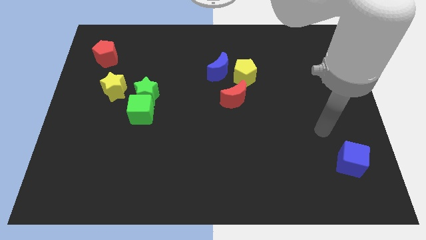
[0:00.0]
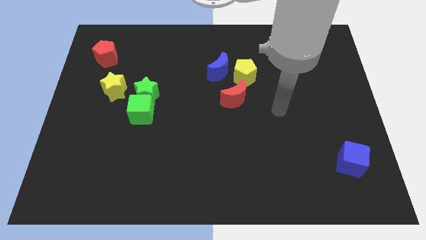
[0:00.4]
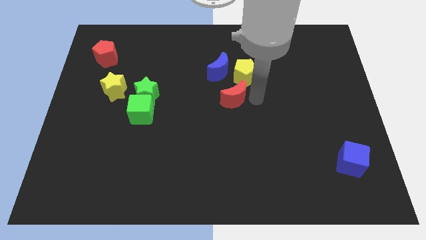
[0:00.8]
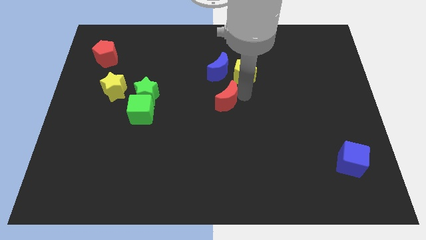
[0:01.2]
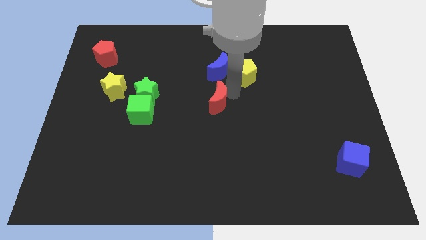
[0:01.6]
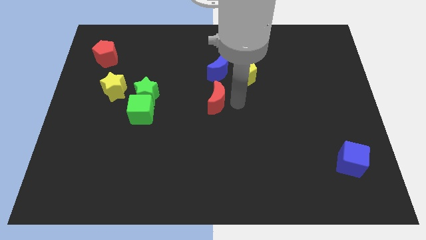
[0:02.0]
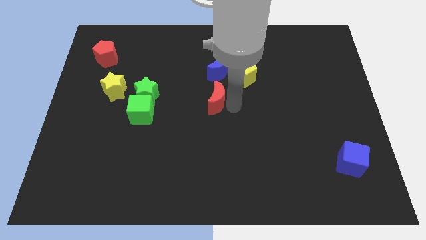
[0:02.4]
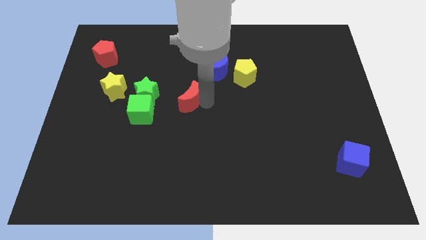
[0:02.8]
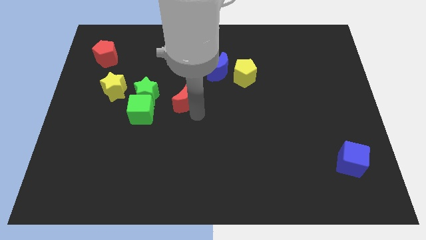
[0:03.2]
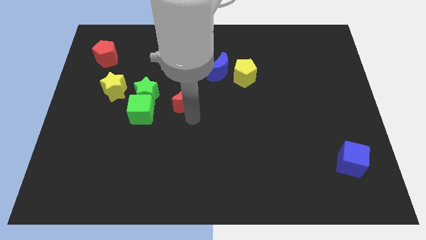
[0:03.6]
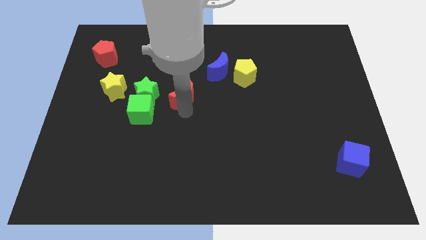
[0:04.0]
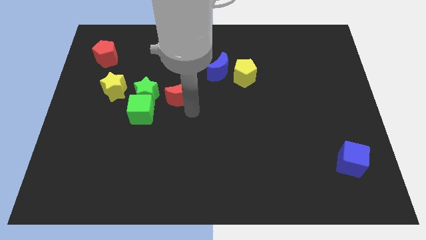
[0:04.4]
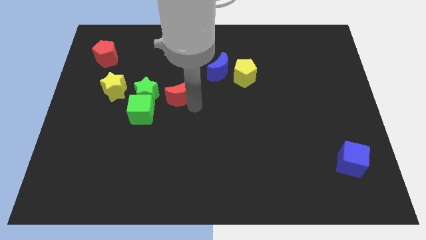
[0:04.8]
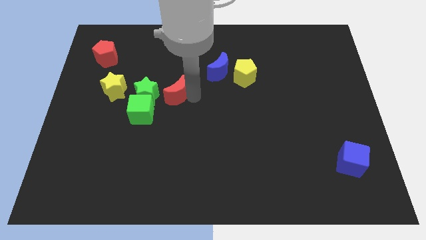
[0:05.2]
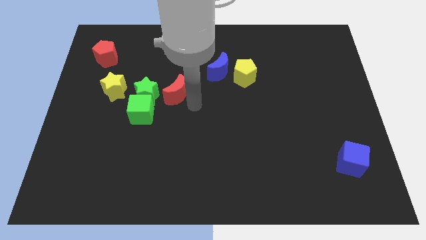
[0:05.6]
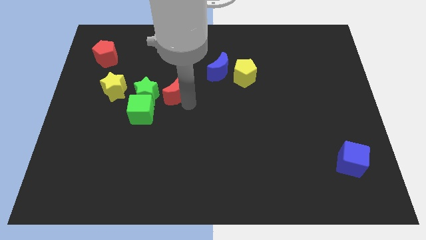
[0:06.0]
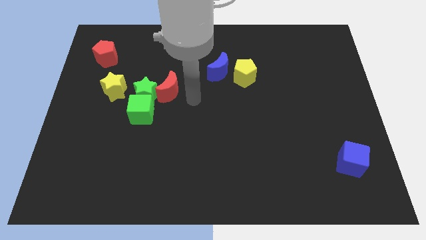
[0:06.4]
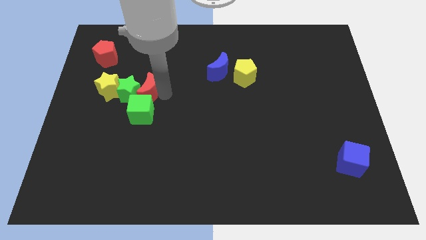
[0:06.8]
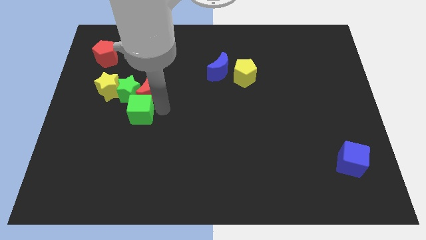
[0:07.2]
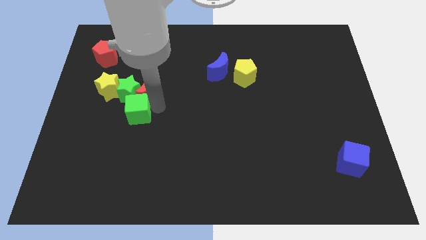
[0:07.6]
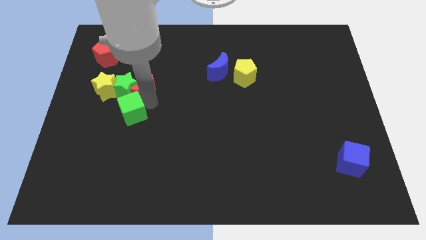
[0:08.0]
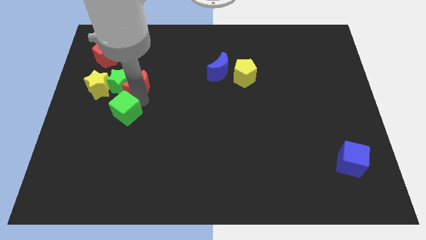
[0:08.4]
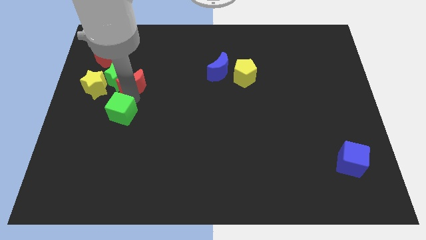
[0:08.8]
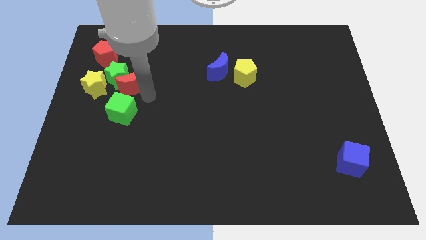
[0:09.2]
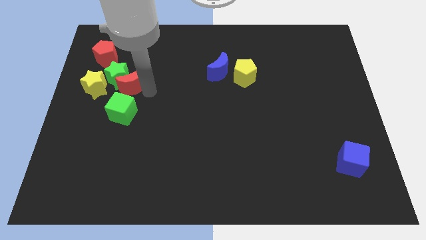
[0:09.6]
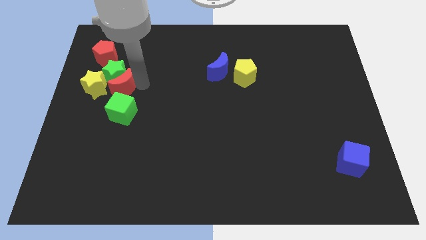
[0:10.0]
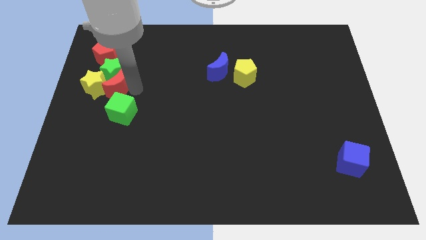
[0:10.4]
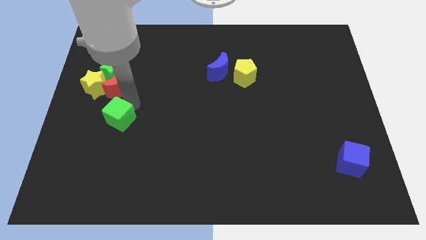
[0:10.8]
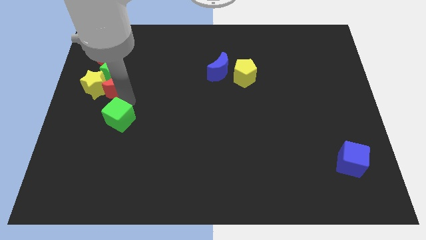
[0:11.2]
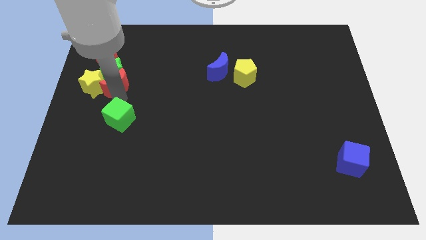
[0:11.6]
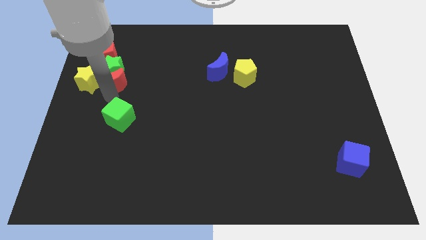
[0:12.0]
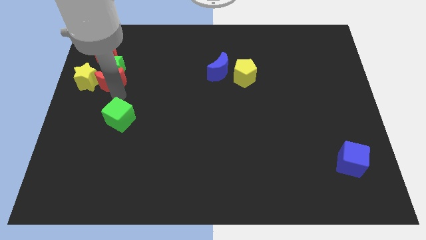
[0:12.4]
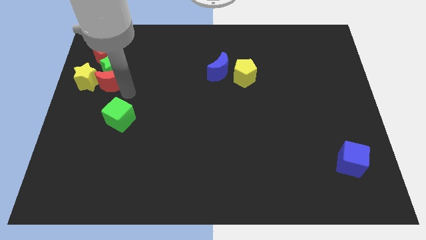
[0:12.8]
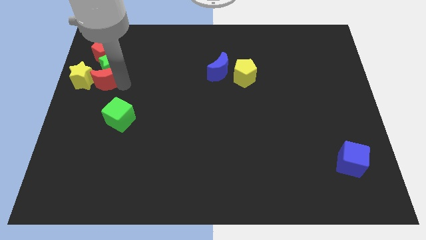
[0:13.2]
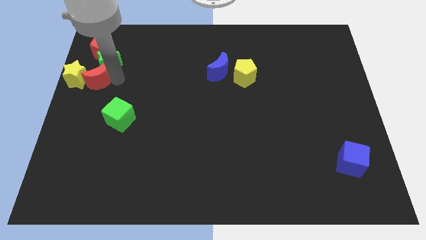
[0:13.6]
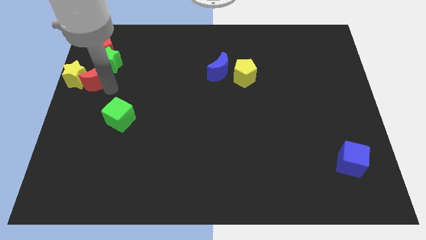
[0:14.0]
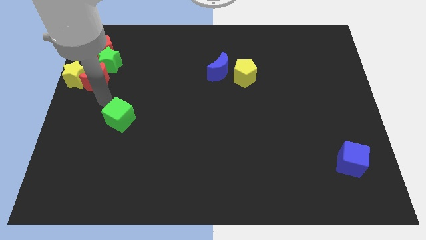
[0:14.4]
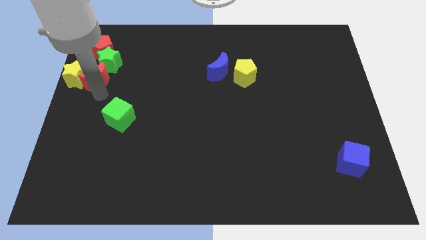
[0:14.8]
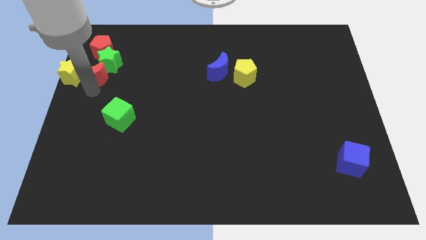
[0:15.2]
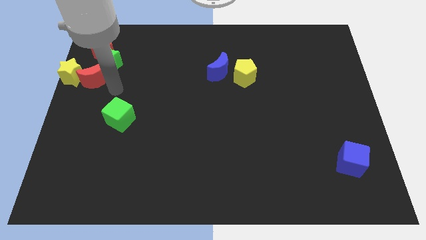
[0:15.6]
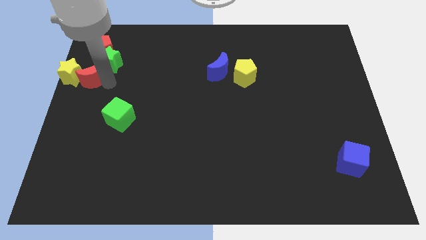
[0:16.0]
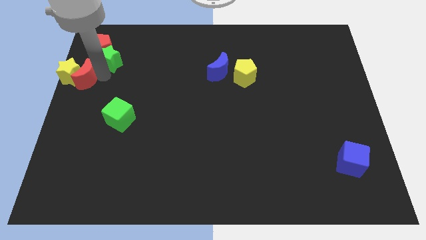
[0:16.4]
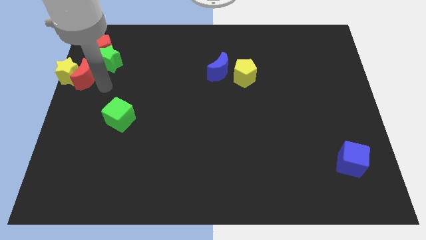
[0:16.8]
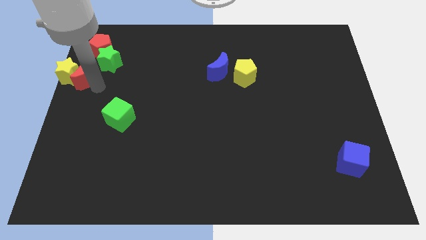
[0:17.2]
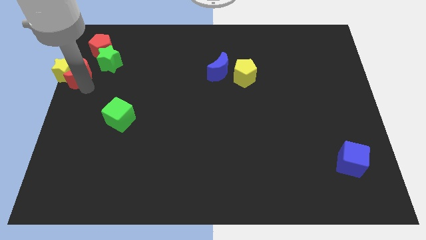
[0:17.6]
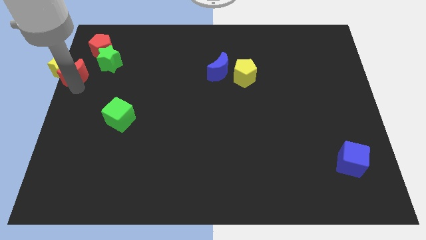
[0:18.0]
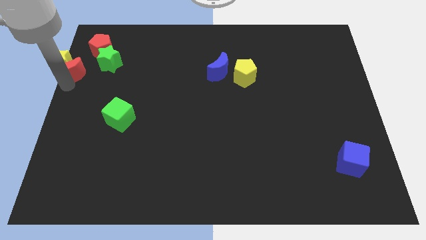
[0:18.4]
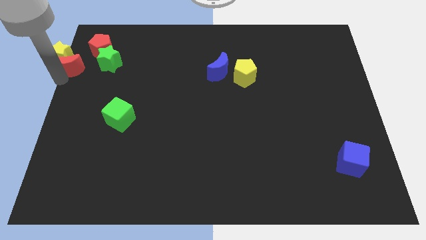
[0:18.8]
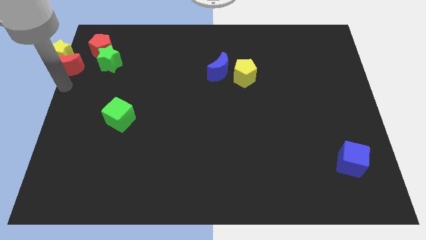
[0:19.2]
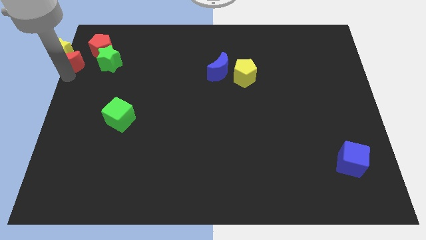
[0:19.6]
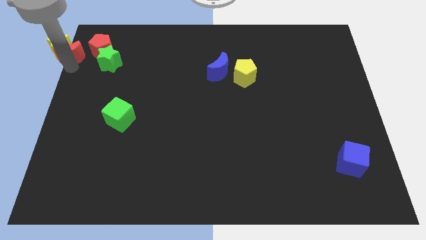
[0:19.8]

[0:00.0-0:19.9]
push the red moon to the top left

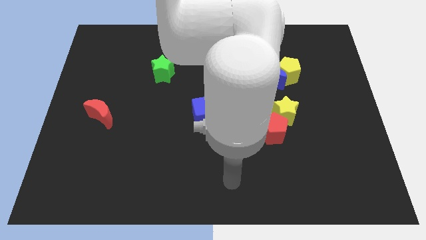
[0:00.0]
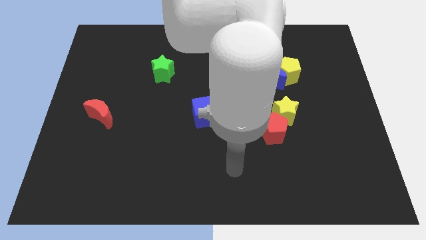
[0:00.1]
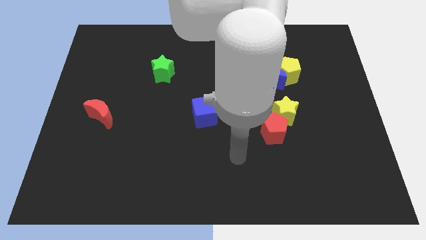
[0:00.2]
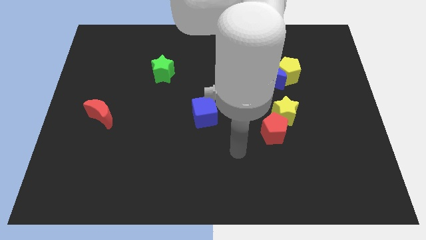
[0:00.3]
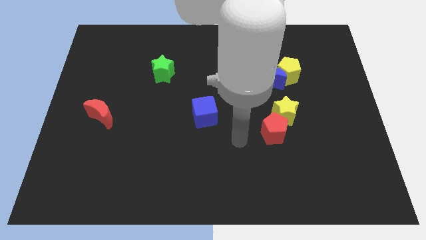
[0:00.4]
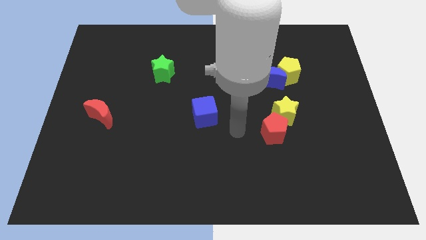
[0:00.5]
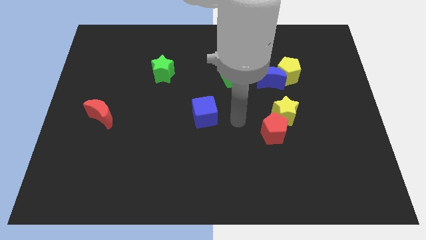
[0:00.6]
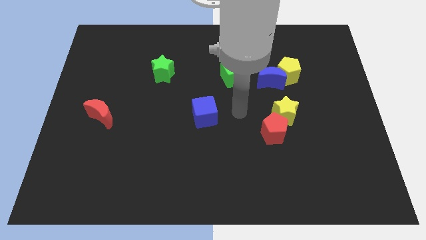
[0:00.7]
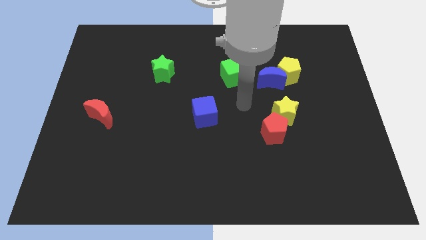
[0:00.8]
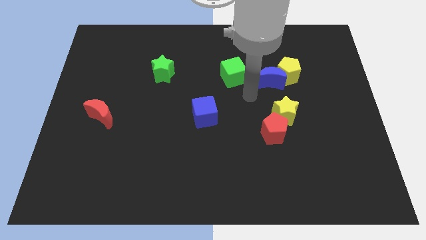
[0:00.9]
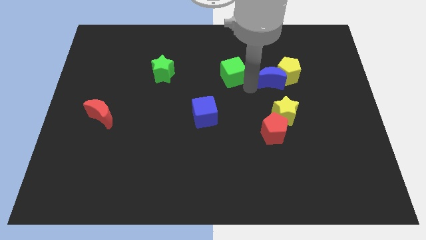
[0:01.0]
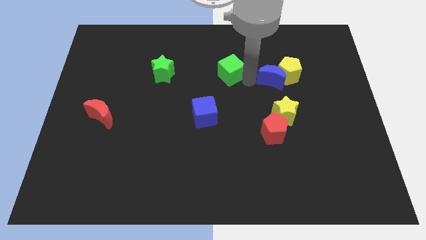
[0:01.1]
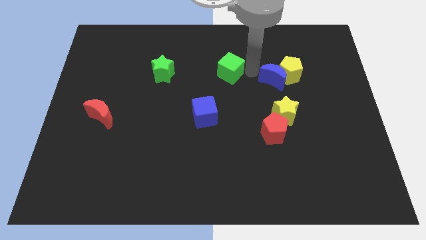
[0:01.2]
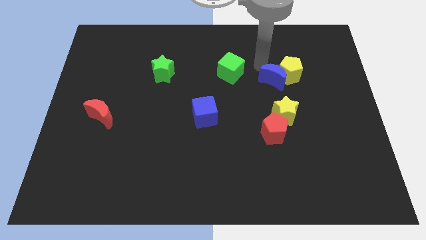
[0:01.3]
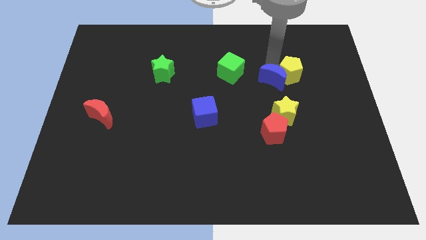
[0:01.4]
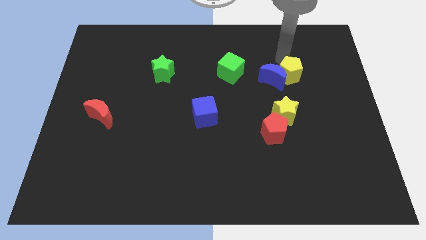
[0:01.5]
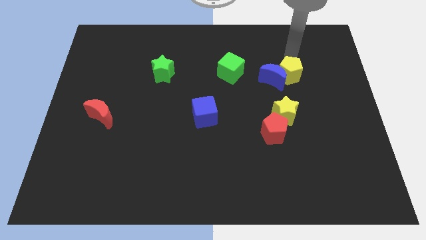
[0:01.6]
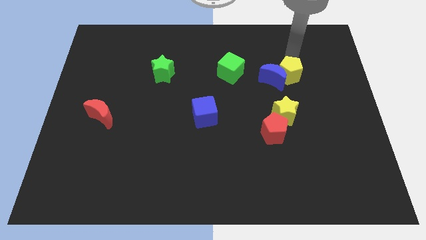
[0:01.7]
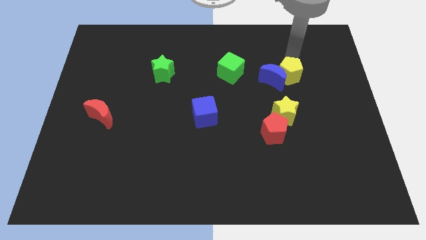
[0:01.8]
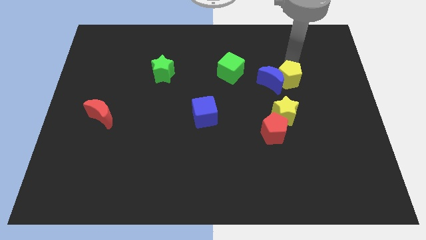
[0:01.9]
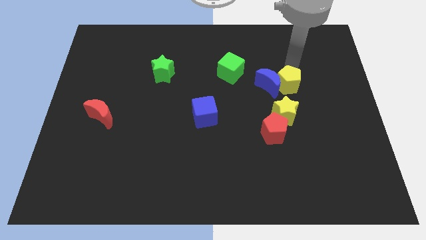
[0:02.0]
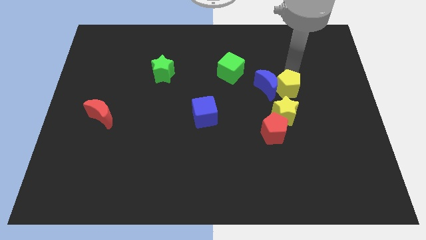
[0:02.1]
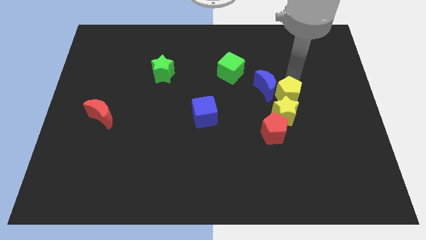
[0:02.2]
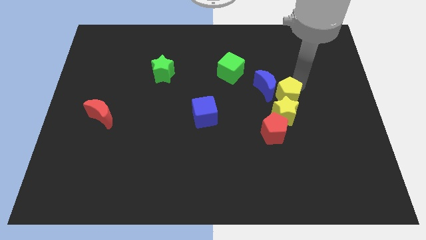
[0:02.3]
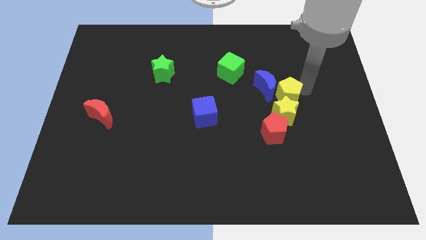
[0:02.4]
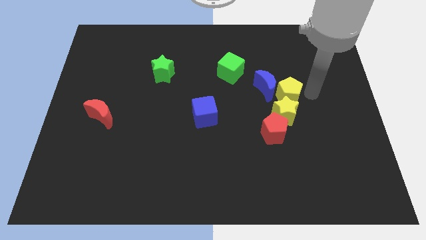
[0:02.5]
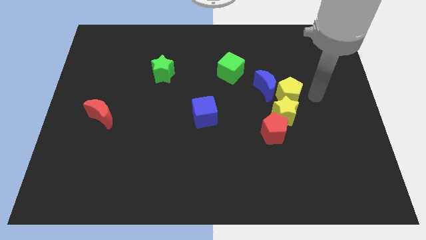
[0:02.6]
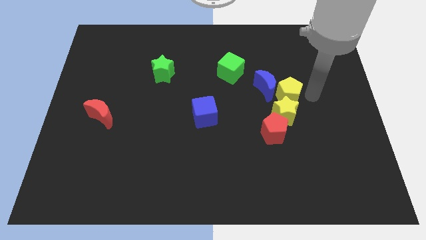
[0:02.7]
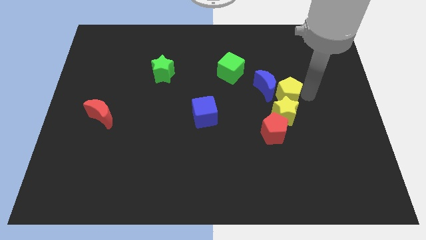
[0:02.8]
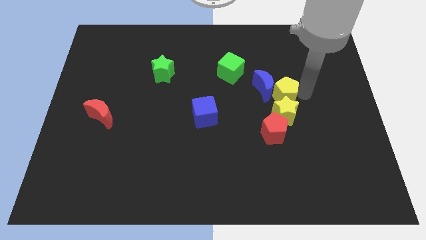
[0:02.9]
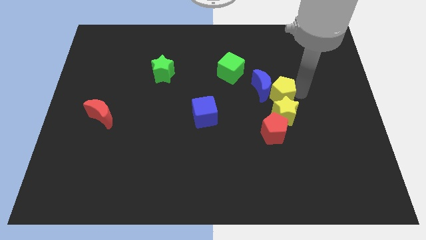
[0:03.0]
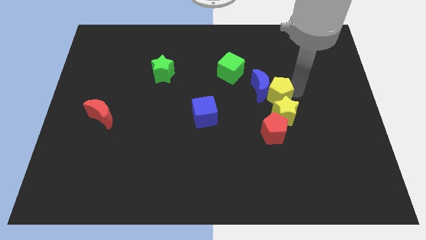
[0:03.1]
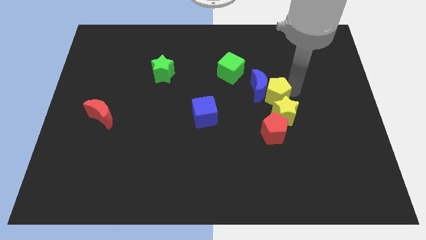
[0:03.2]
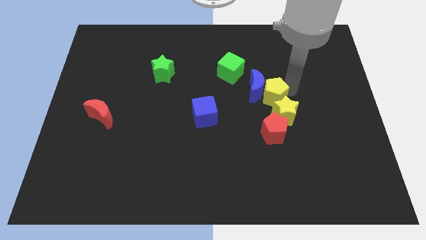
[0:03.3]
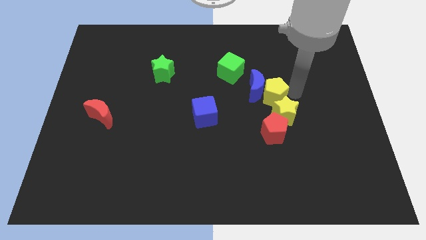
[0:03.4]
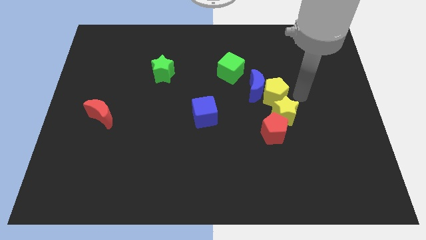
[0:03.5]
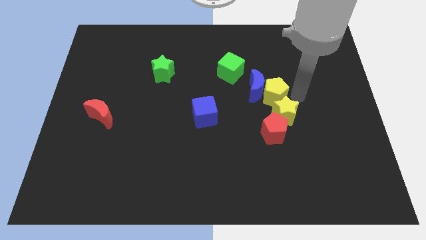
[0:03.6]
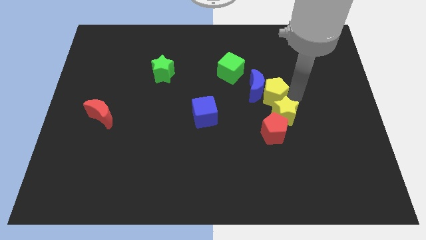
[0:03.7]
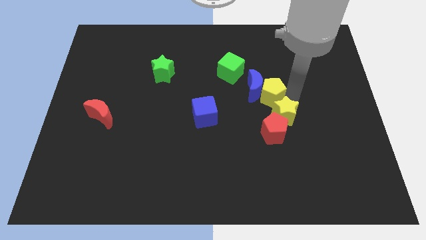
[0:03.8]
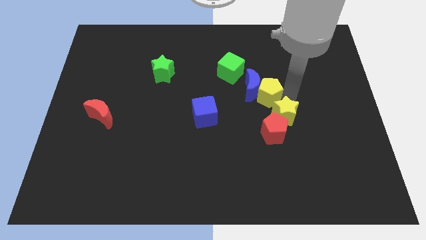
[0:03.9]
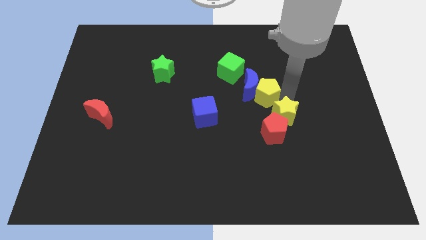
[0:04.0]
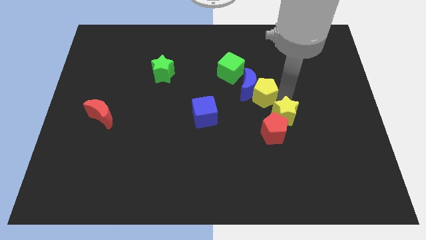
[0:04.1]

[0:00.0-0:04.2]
slide the yellow pentagon to the middle
